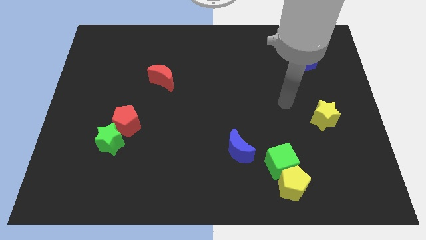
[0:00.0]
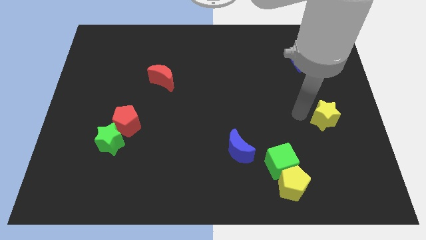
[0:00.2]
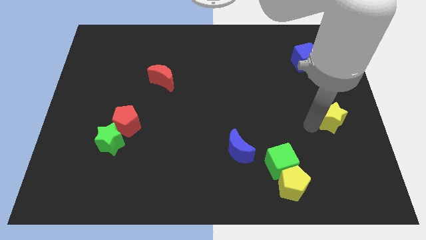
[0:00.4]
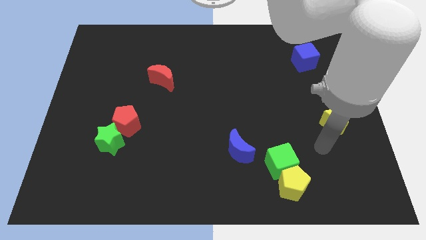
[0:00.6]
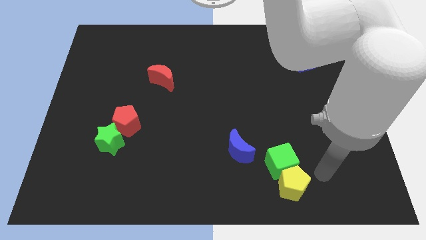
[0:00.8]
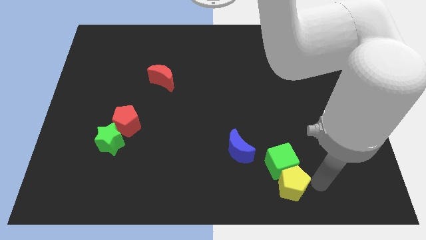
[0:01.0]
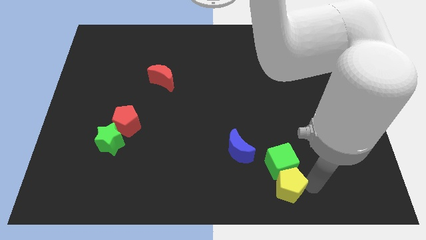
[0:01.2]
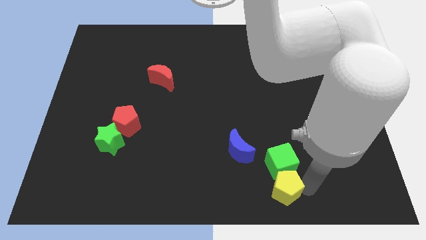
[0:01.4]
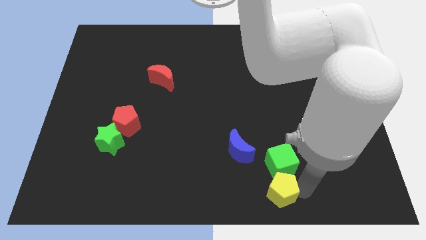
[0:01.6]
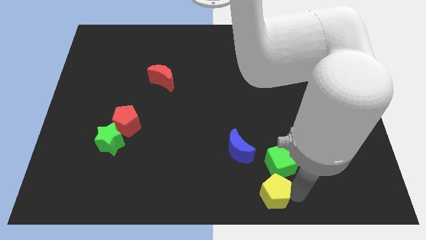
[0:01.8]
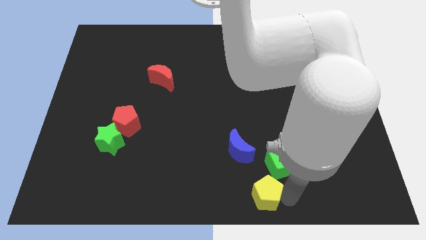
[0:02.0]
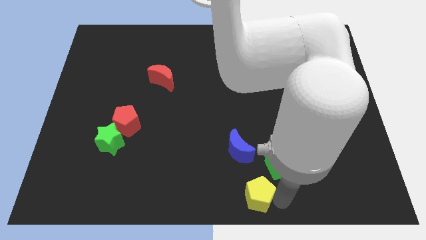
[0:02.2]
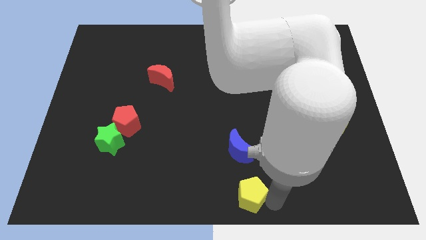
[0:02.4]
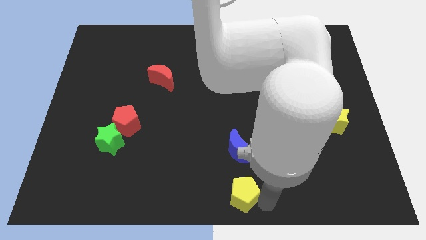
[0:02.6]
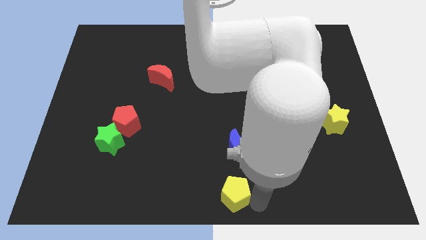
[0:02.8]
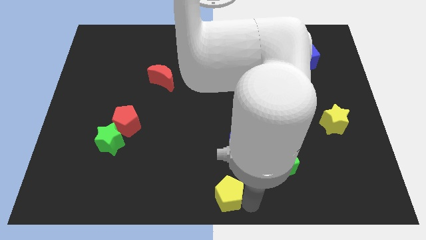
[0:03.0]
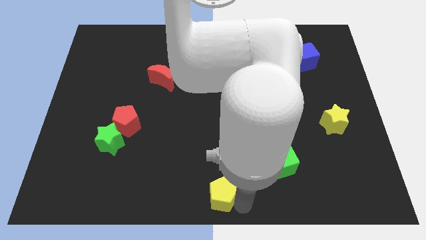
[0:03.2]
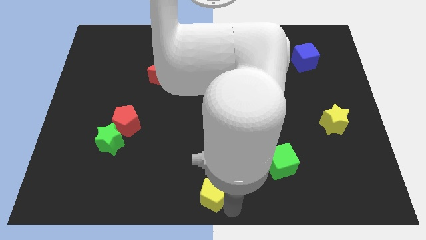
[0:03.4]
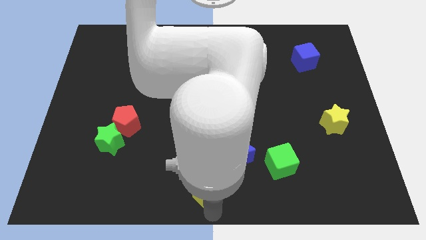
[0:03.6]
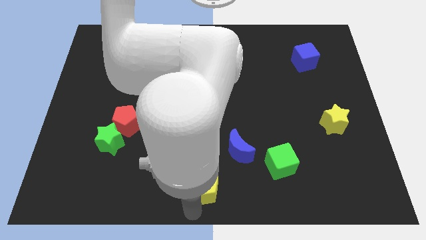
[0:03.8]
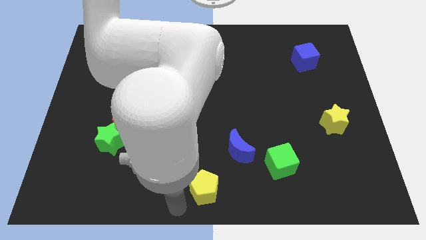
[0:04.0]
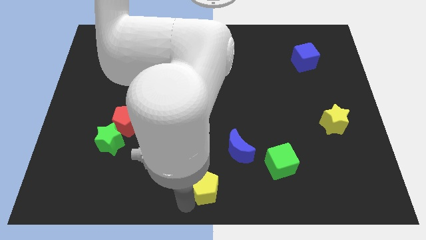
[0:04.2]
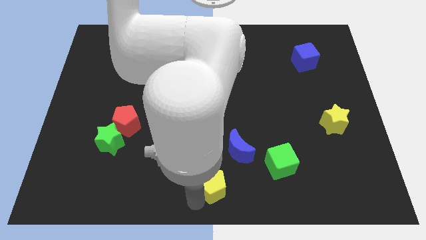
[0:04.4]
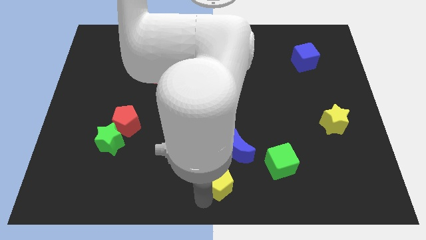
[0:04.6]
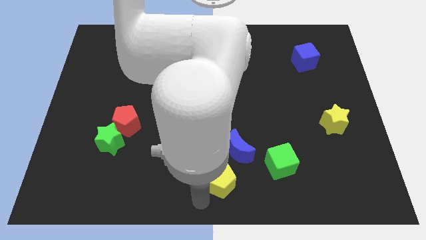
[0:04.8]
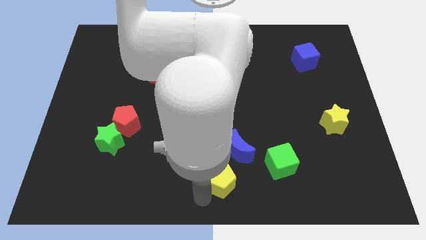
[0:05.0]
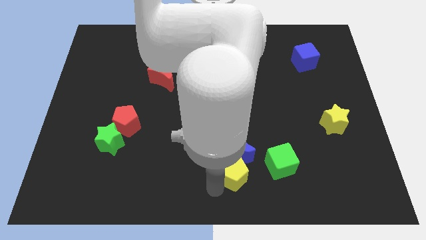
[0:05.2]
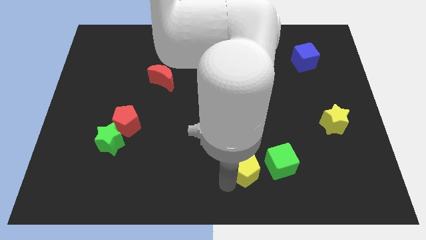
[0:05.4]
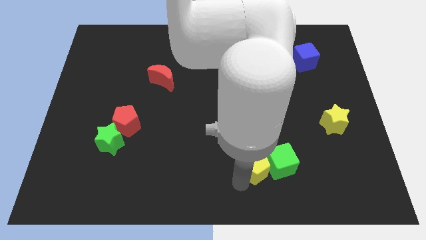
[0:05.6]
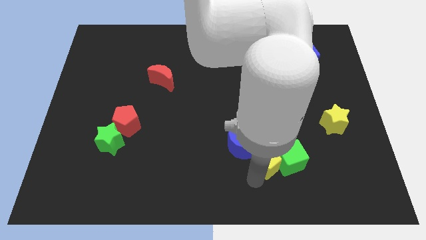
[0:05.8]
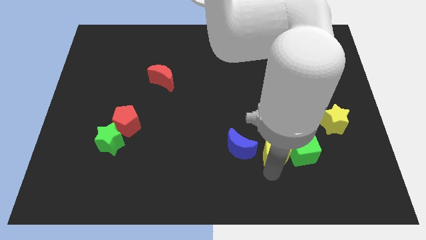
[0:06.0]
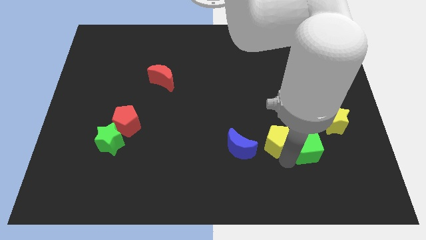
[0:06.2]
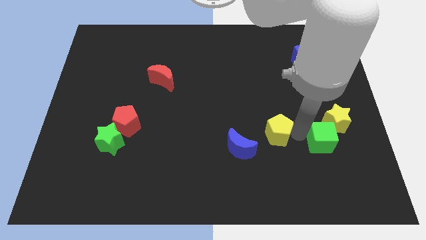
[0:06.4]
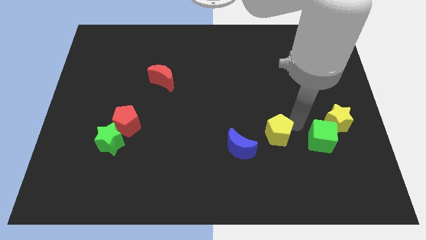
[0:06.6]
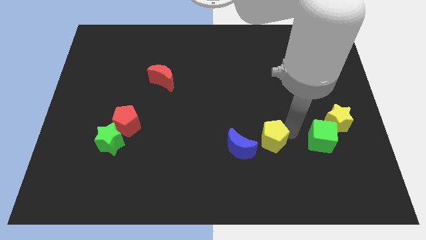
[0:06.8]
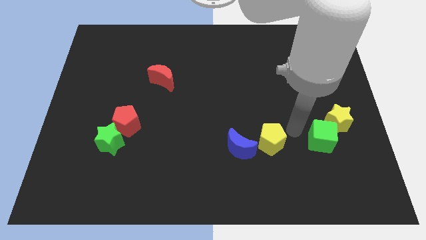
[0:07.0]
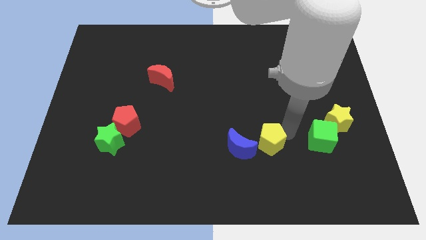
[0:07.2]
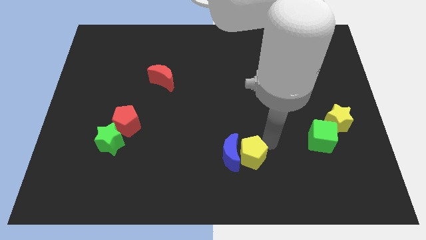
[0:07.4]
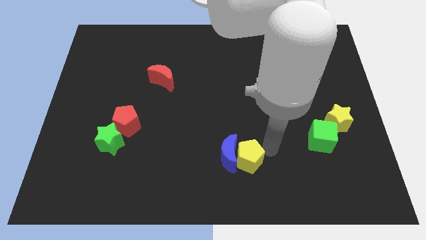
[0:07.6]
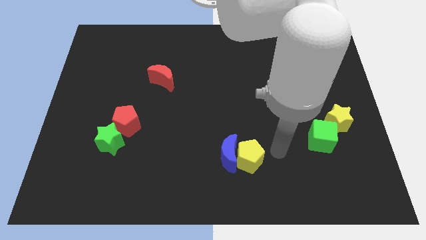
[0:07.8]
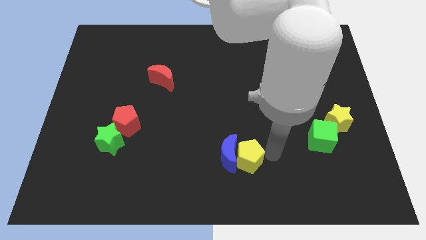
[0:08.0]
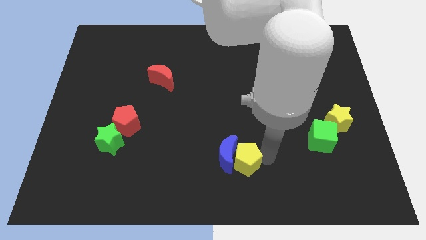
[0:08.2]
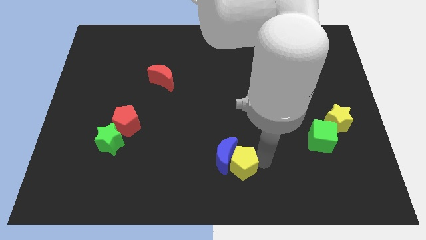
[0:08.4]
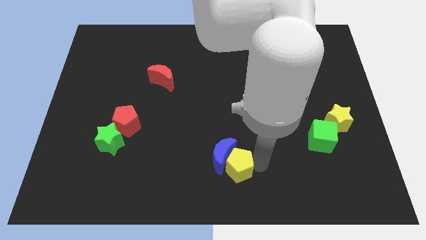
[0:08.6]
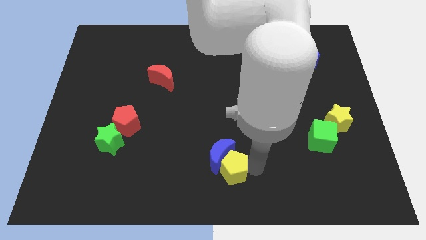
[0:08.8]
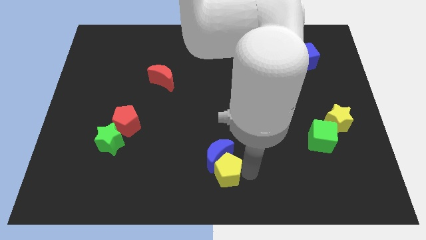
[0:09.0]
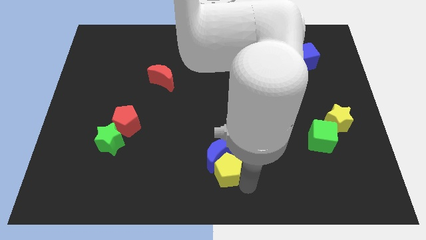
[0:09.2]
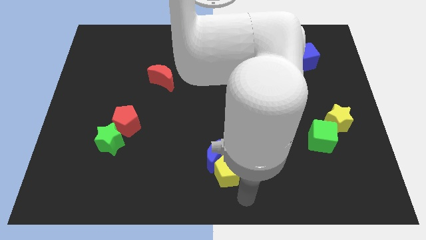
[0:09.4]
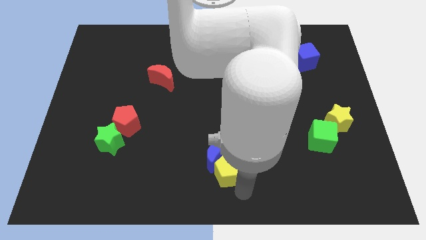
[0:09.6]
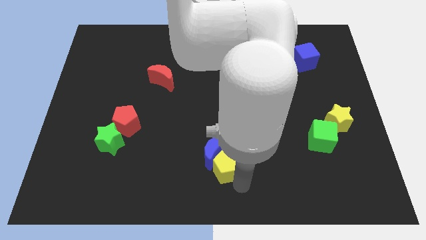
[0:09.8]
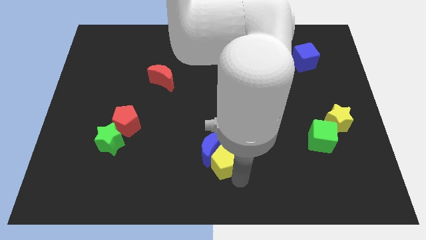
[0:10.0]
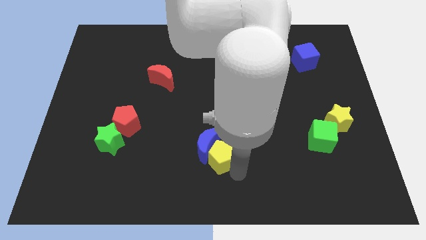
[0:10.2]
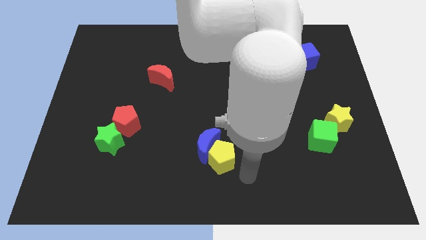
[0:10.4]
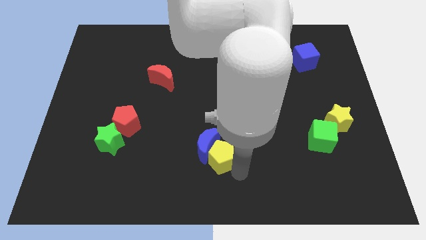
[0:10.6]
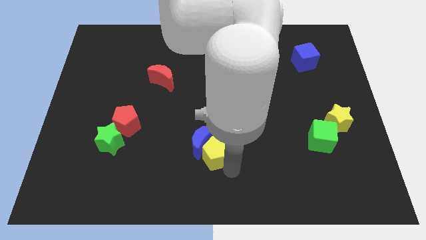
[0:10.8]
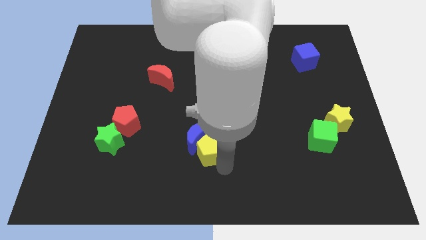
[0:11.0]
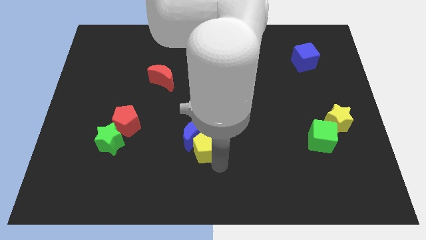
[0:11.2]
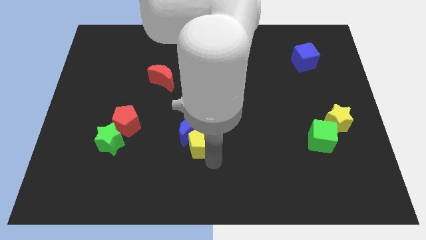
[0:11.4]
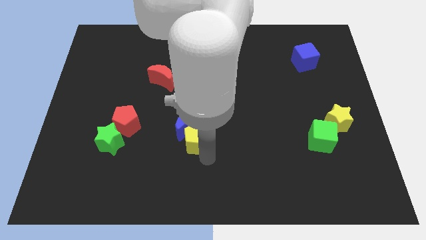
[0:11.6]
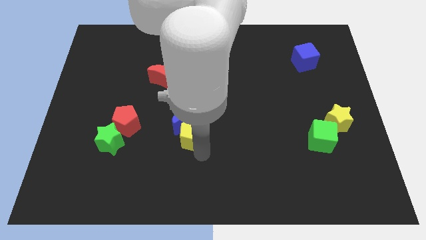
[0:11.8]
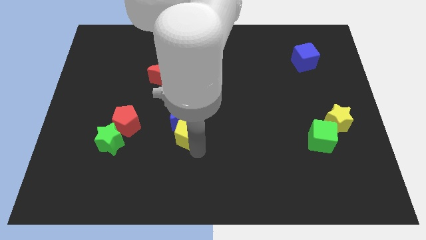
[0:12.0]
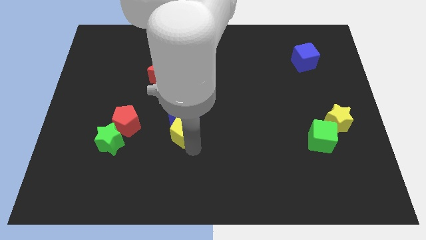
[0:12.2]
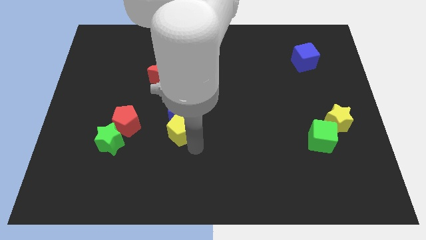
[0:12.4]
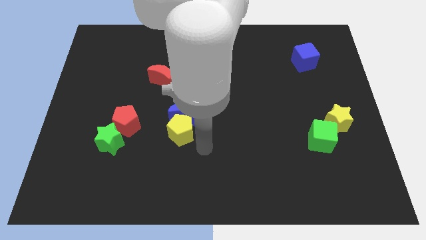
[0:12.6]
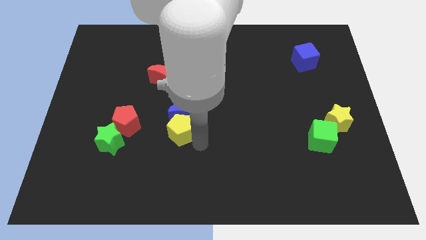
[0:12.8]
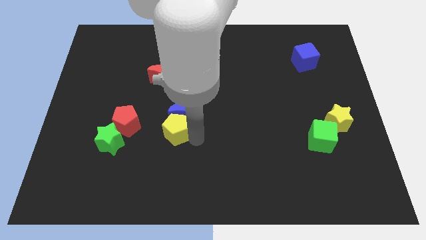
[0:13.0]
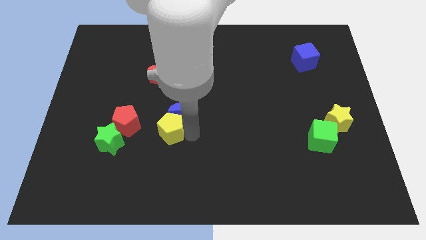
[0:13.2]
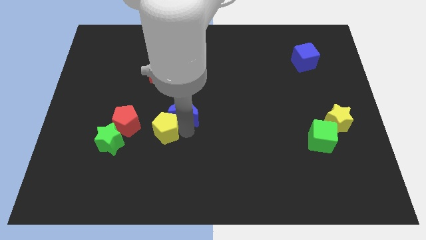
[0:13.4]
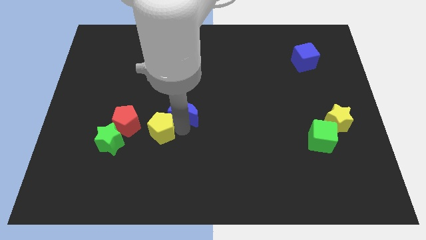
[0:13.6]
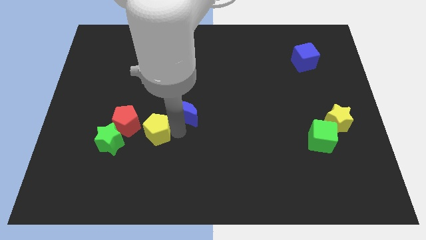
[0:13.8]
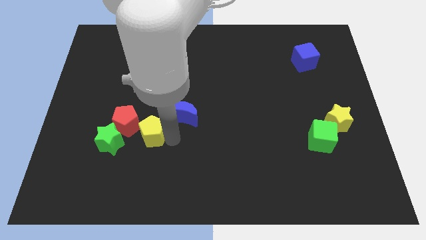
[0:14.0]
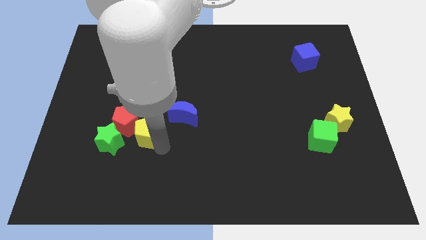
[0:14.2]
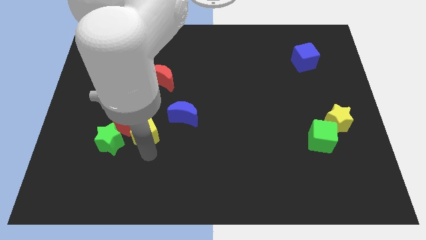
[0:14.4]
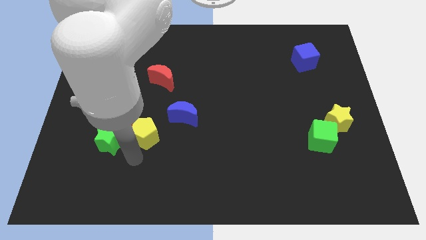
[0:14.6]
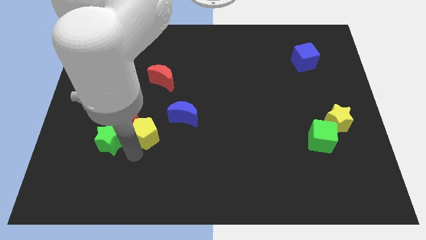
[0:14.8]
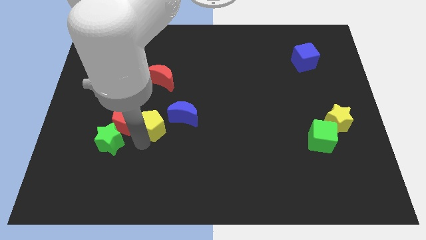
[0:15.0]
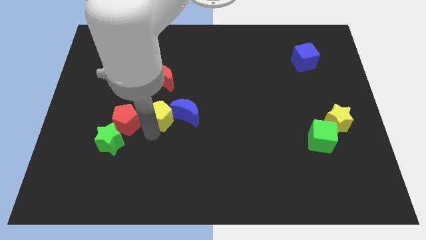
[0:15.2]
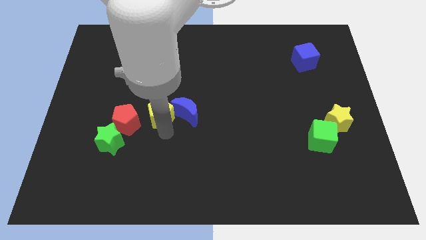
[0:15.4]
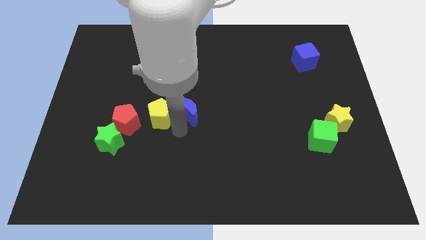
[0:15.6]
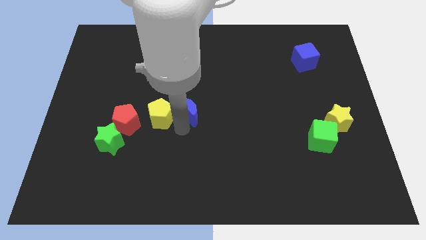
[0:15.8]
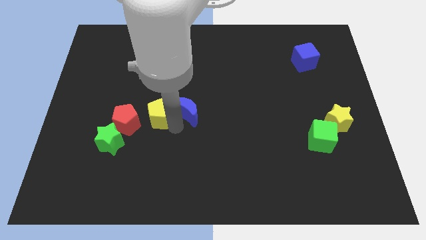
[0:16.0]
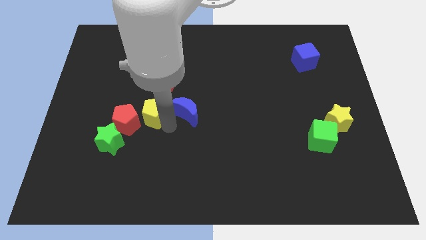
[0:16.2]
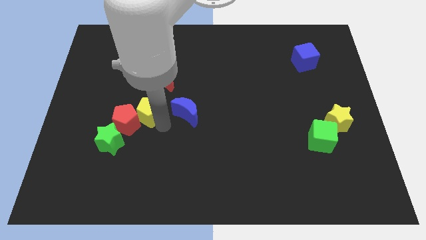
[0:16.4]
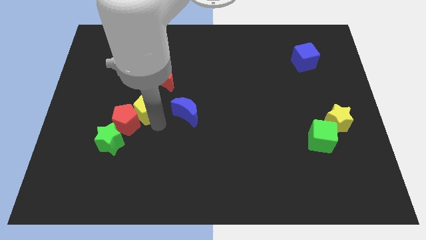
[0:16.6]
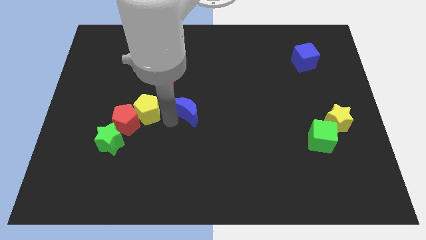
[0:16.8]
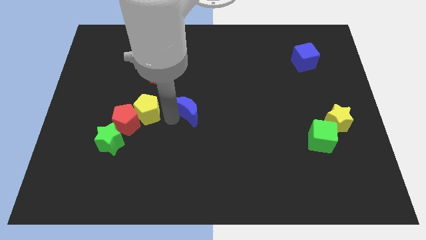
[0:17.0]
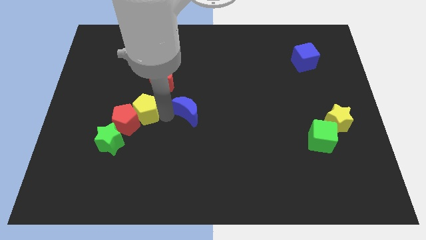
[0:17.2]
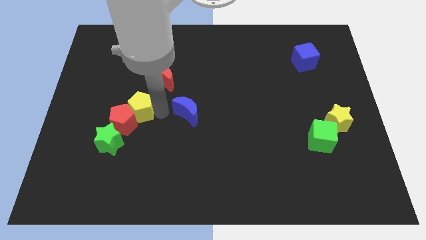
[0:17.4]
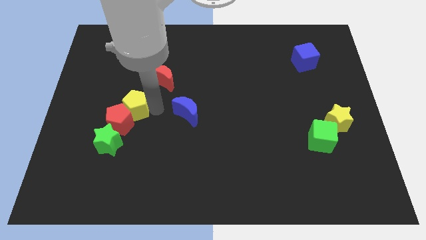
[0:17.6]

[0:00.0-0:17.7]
move the yellow pentagon to the top of the green star
